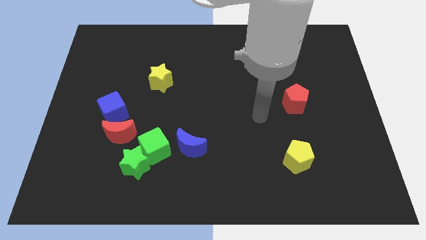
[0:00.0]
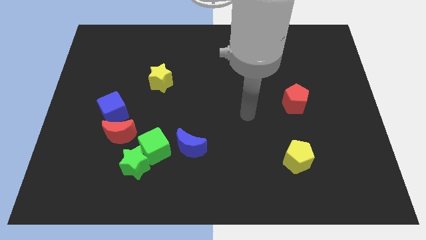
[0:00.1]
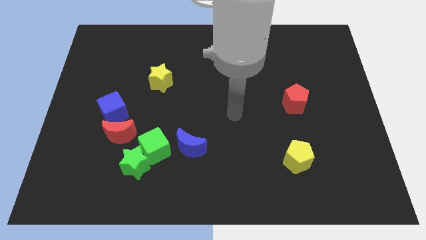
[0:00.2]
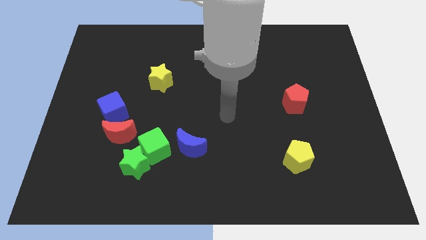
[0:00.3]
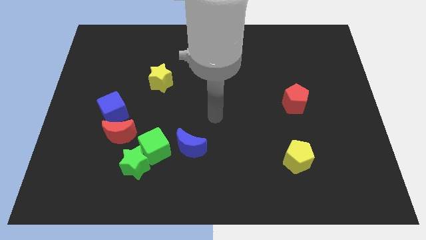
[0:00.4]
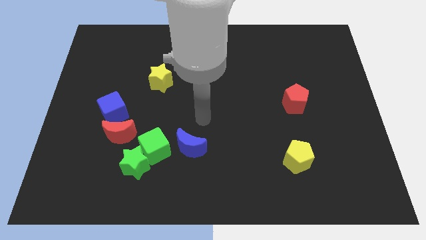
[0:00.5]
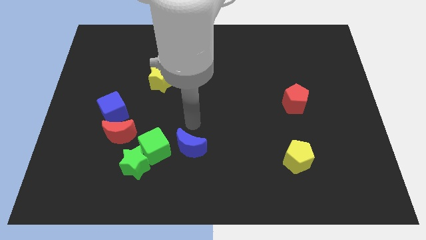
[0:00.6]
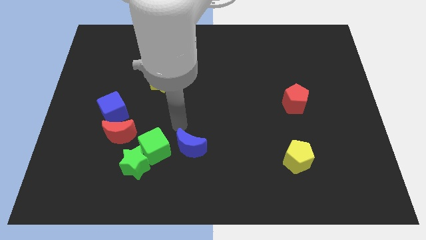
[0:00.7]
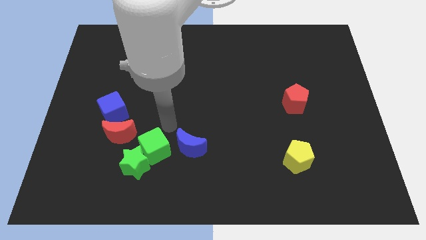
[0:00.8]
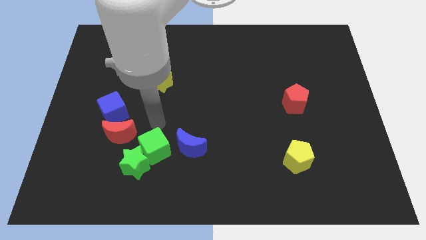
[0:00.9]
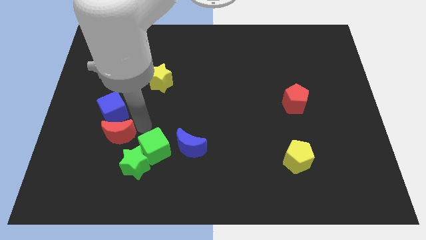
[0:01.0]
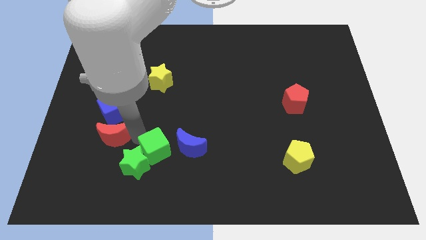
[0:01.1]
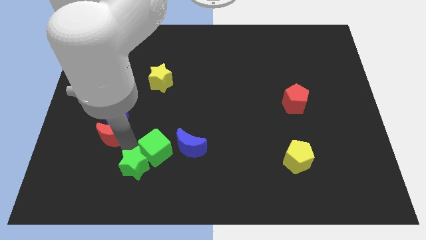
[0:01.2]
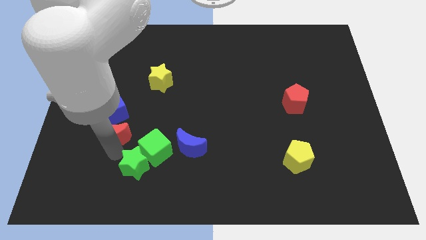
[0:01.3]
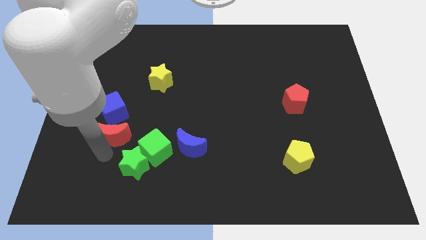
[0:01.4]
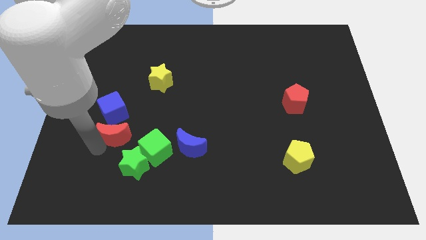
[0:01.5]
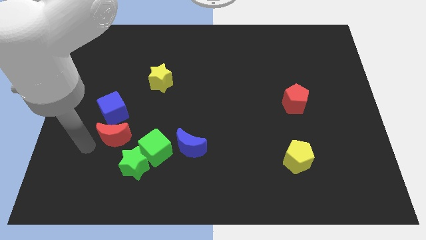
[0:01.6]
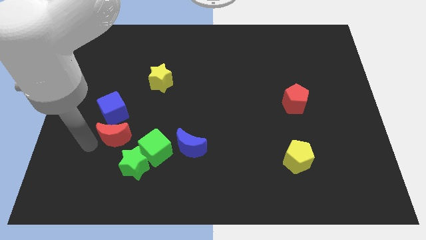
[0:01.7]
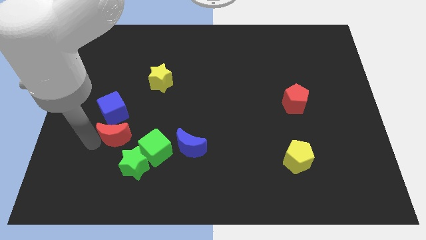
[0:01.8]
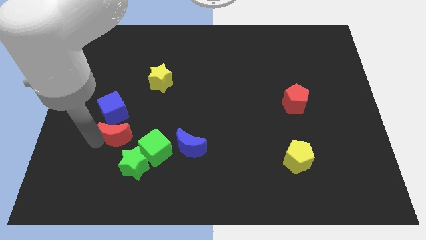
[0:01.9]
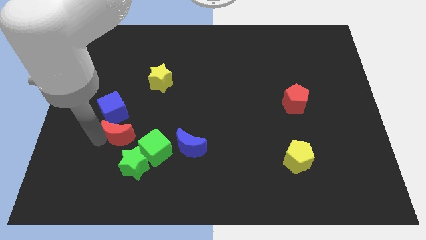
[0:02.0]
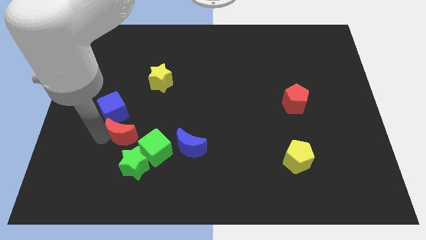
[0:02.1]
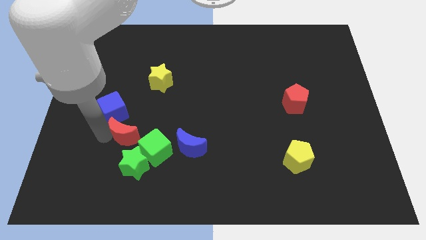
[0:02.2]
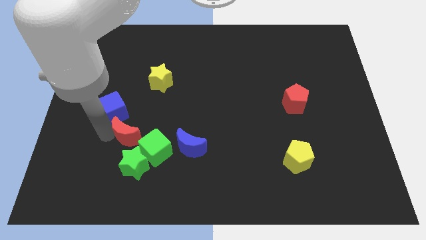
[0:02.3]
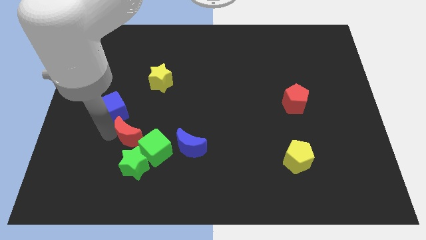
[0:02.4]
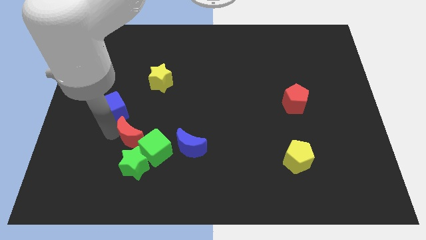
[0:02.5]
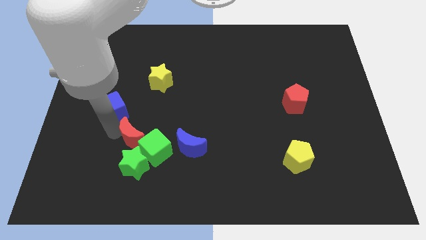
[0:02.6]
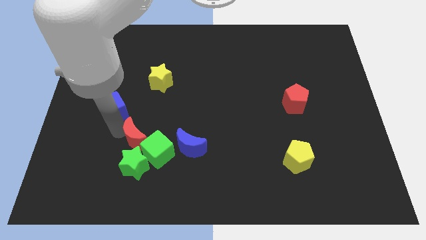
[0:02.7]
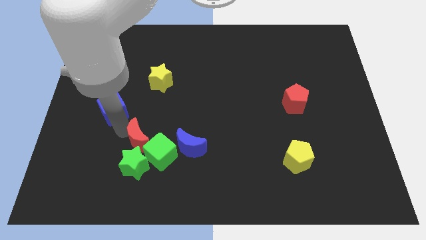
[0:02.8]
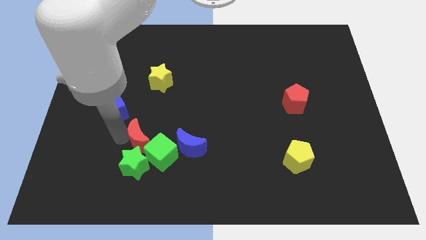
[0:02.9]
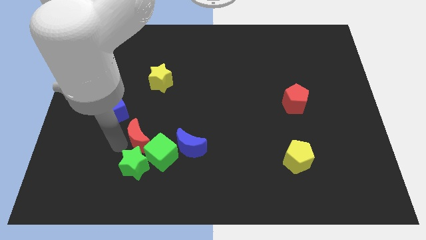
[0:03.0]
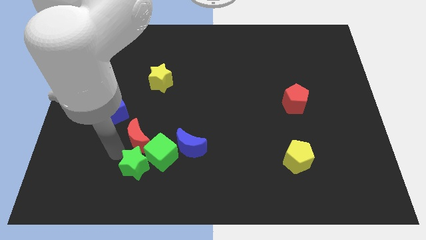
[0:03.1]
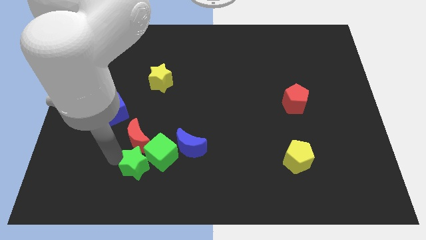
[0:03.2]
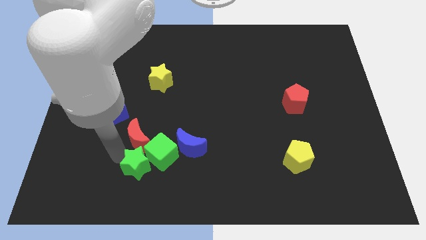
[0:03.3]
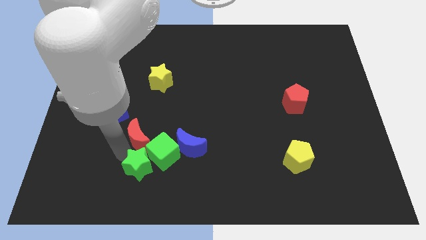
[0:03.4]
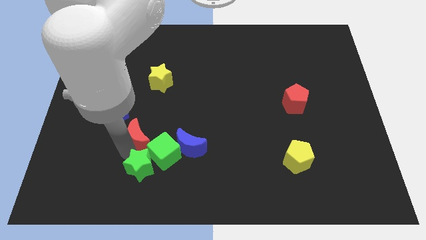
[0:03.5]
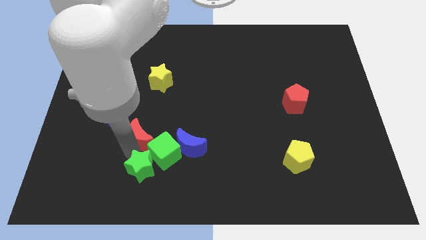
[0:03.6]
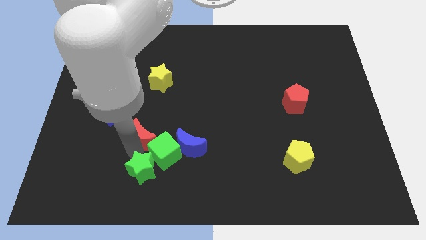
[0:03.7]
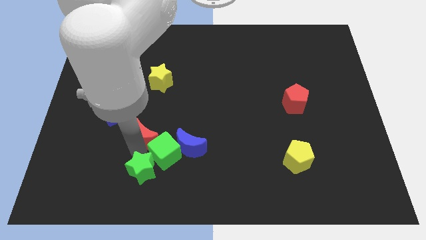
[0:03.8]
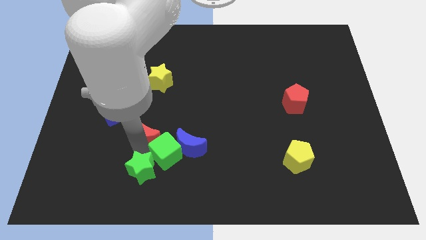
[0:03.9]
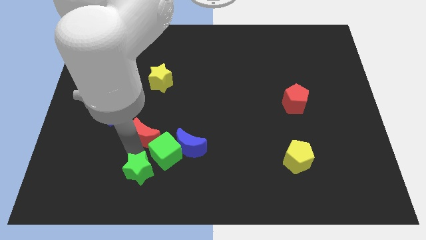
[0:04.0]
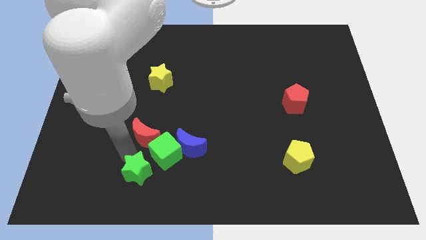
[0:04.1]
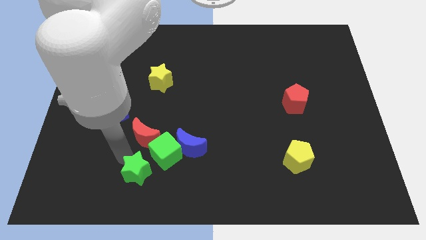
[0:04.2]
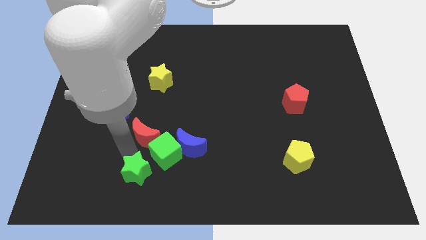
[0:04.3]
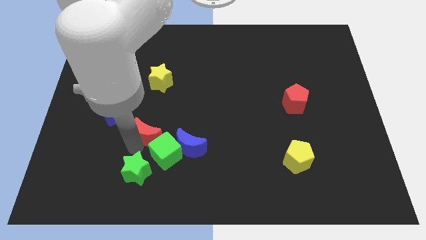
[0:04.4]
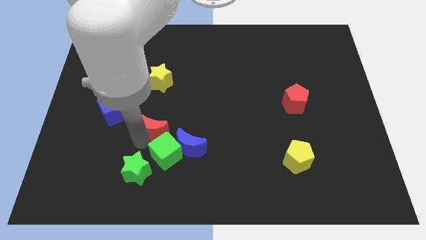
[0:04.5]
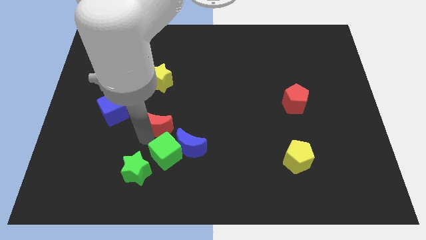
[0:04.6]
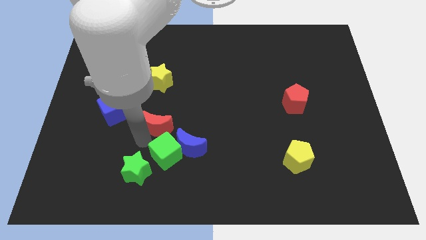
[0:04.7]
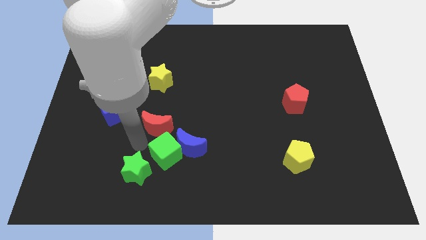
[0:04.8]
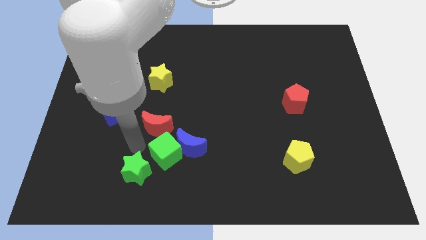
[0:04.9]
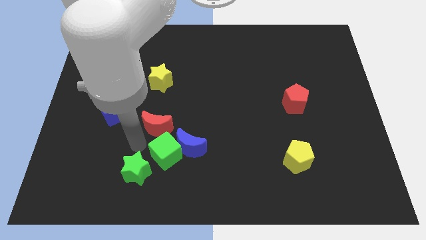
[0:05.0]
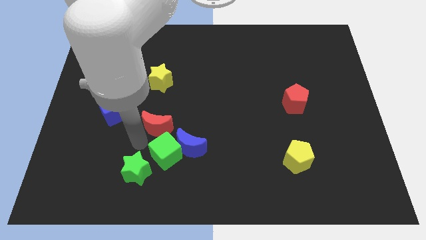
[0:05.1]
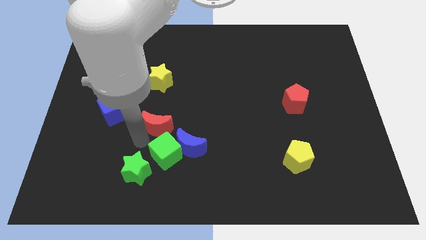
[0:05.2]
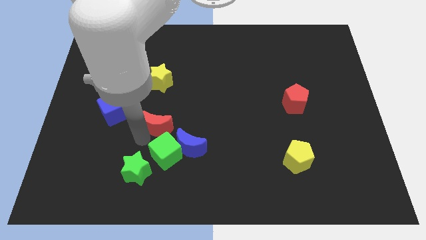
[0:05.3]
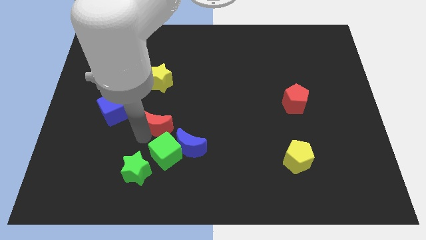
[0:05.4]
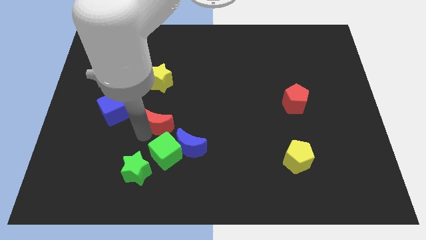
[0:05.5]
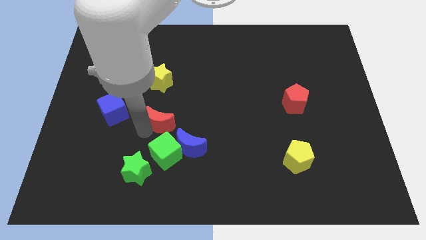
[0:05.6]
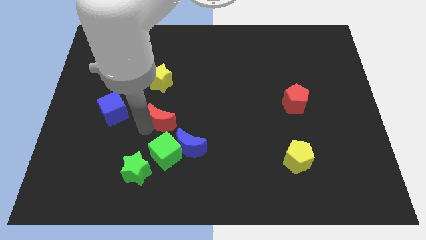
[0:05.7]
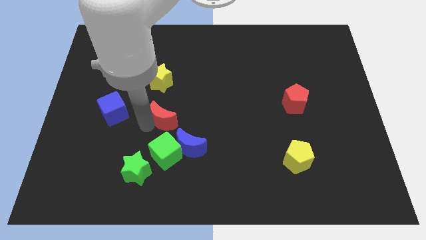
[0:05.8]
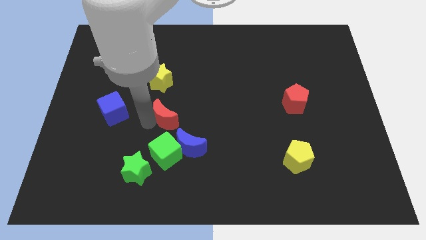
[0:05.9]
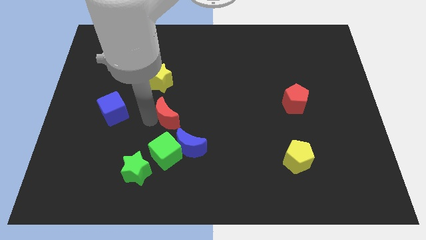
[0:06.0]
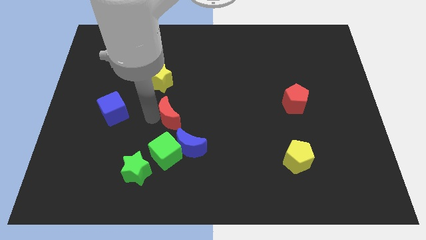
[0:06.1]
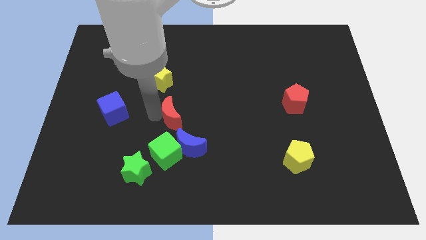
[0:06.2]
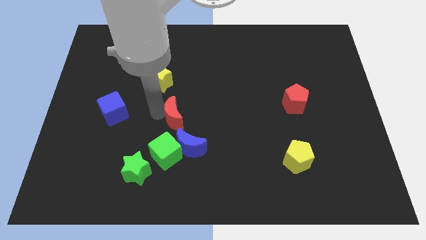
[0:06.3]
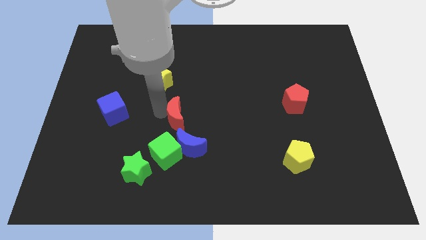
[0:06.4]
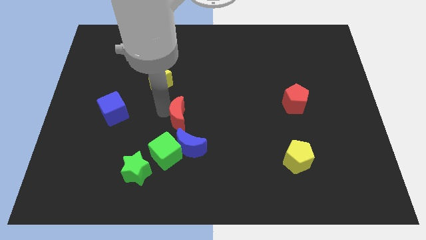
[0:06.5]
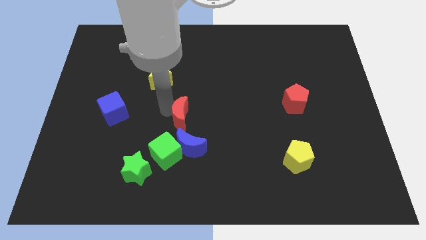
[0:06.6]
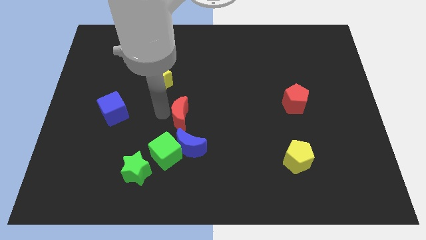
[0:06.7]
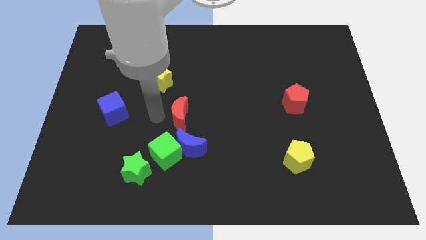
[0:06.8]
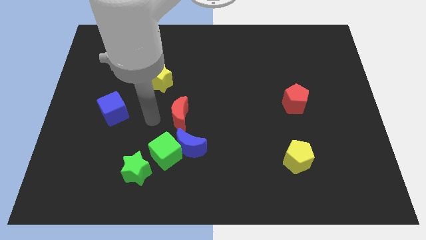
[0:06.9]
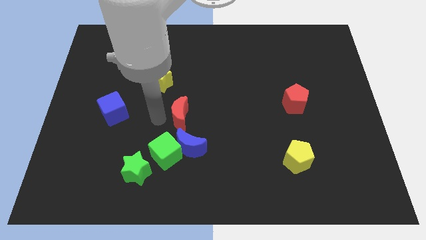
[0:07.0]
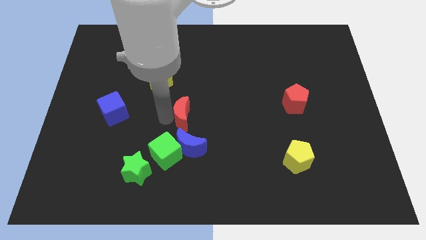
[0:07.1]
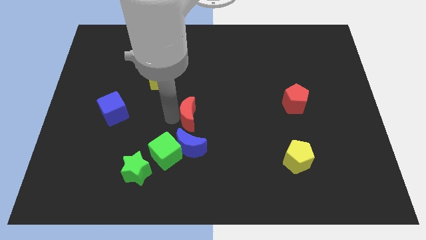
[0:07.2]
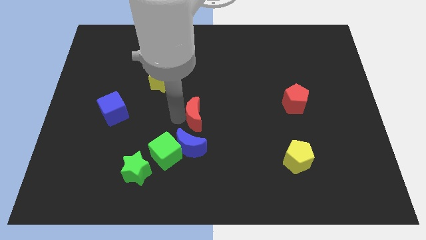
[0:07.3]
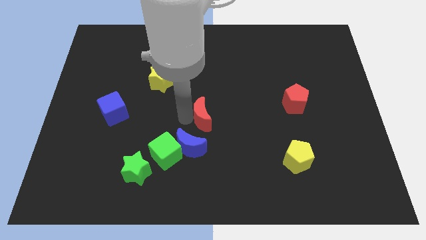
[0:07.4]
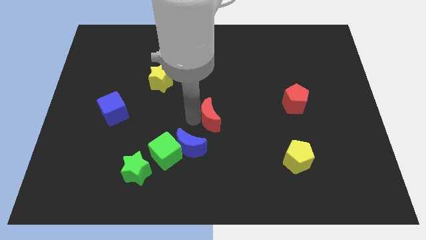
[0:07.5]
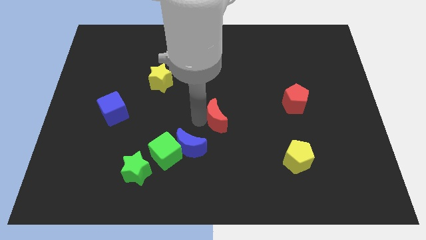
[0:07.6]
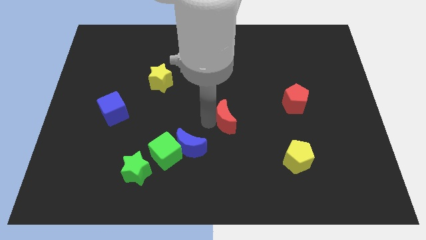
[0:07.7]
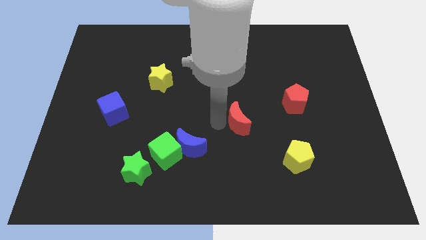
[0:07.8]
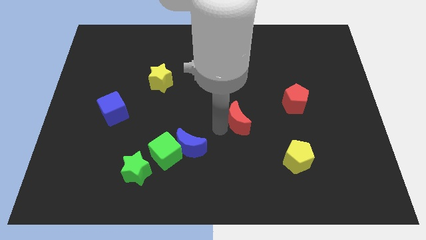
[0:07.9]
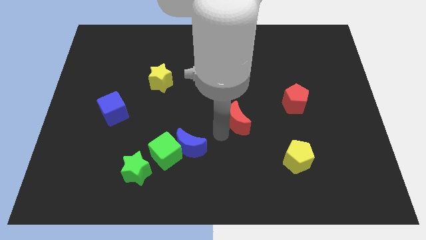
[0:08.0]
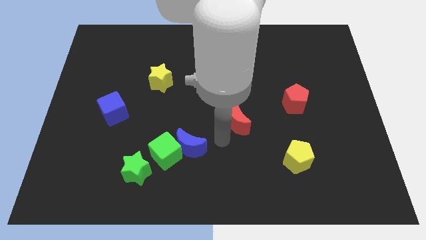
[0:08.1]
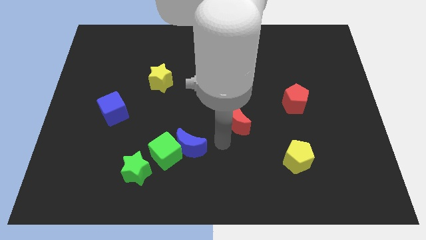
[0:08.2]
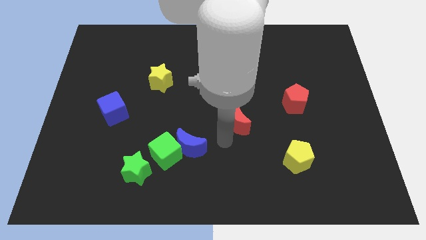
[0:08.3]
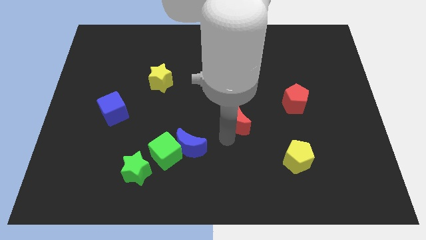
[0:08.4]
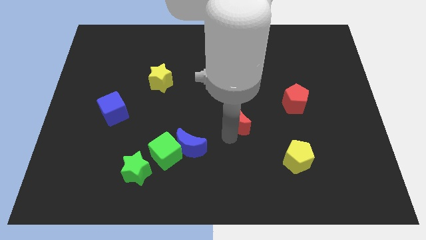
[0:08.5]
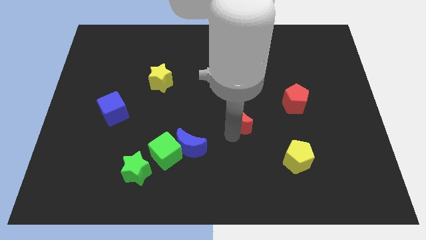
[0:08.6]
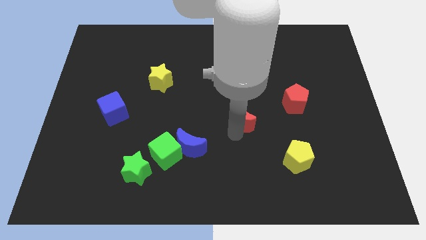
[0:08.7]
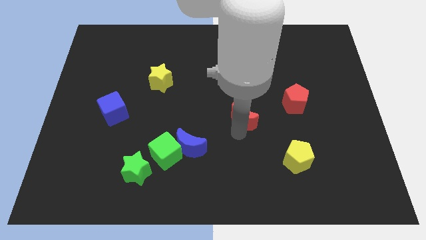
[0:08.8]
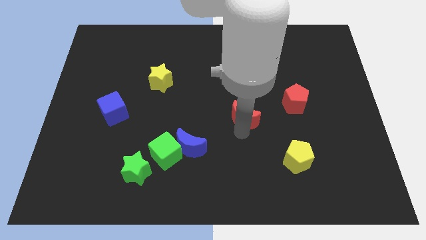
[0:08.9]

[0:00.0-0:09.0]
push the red moon left of the red pentagon
